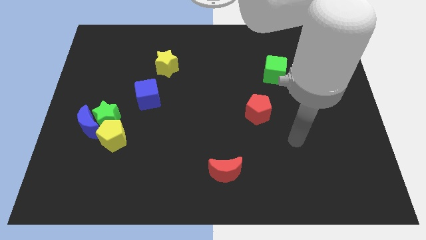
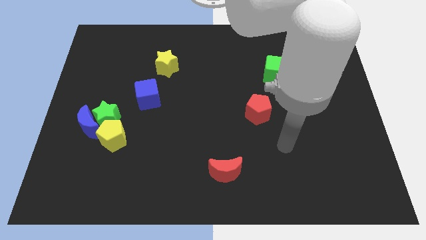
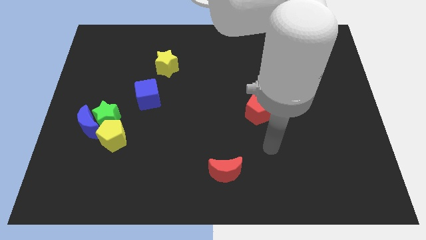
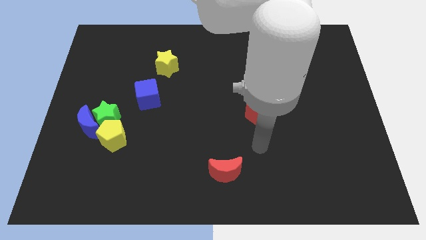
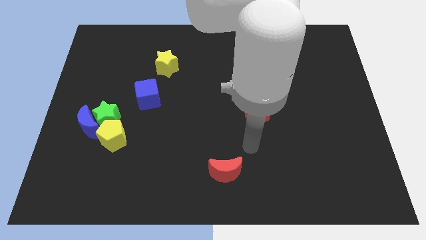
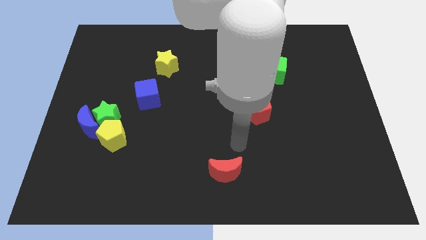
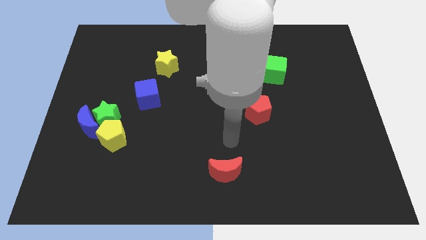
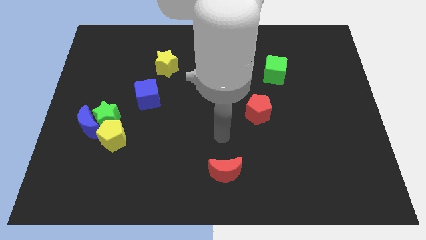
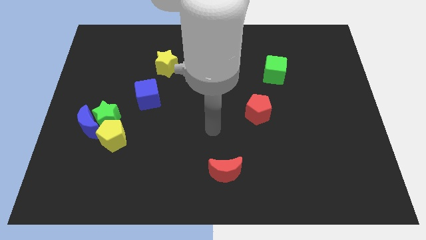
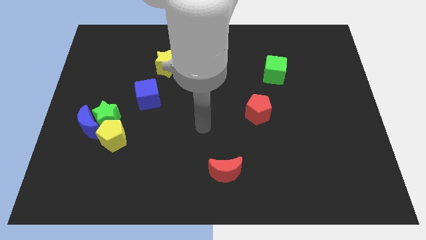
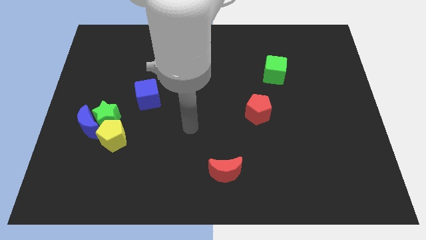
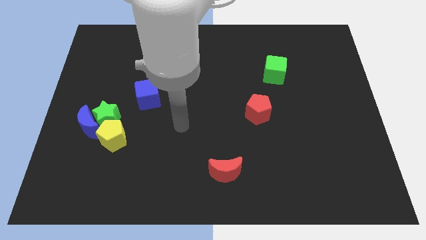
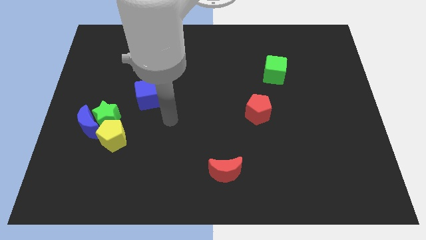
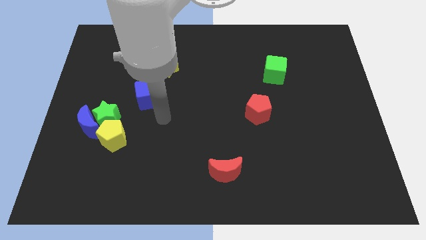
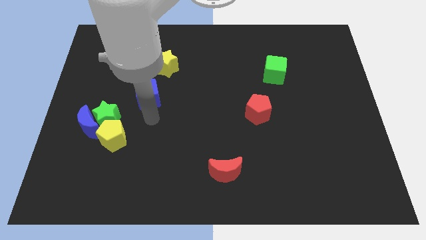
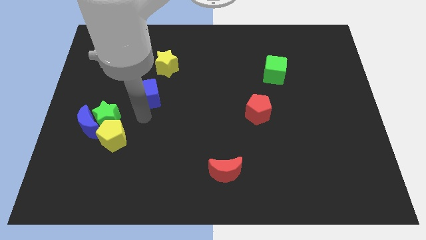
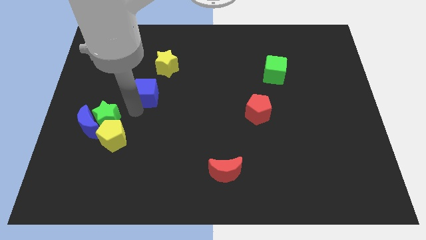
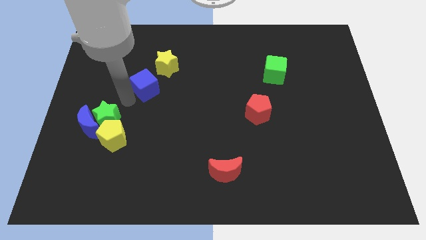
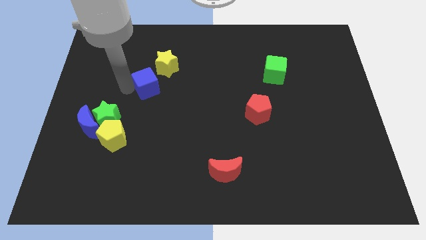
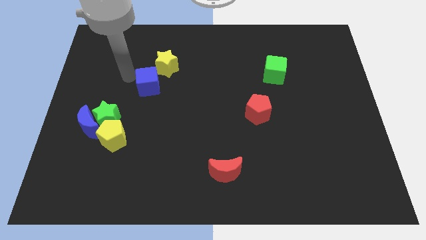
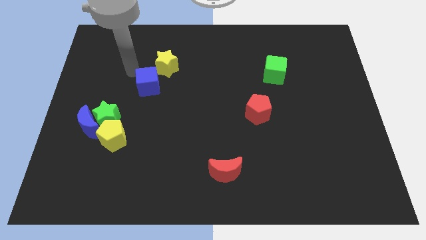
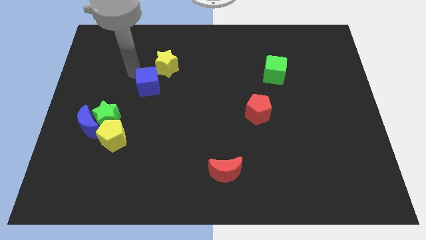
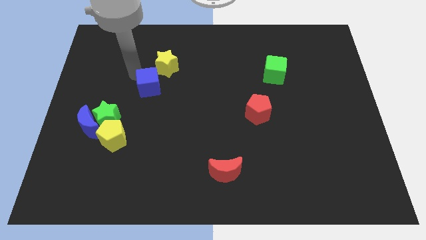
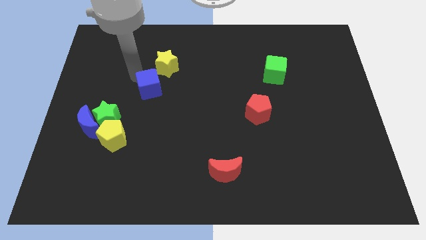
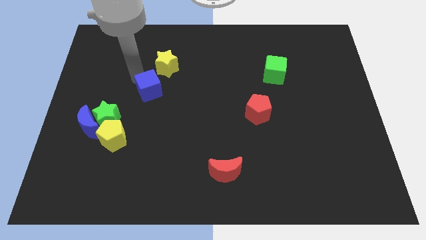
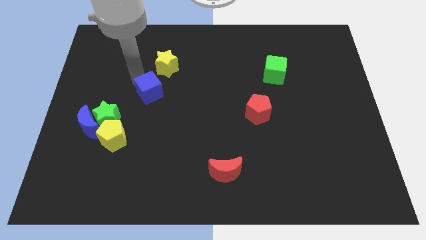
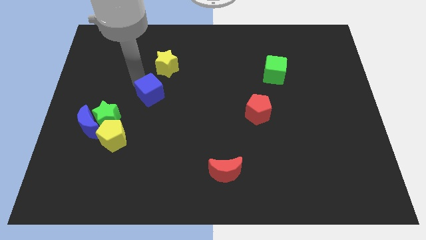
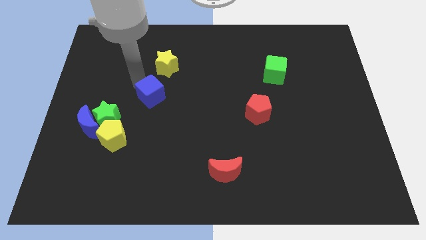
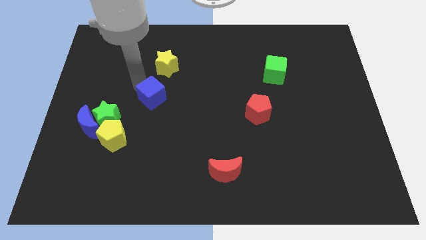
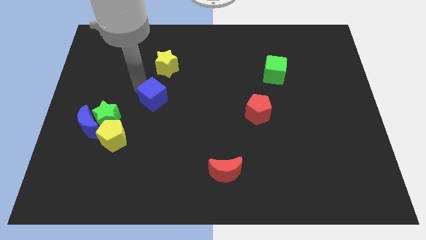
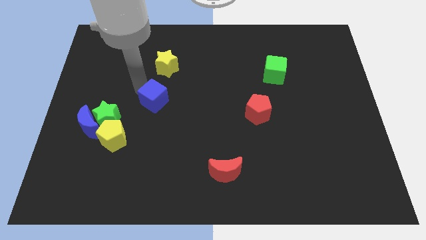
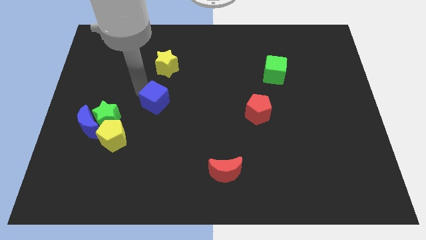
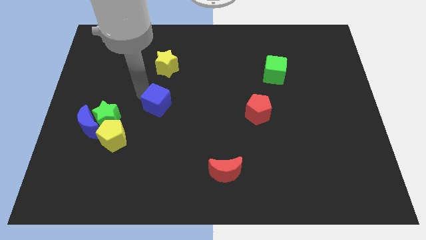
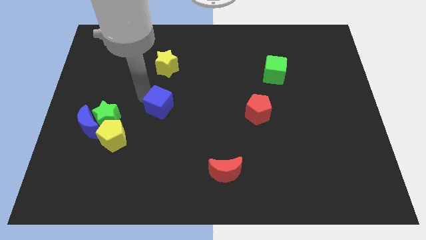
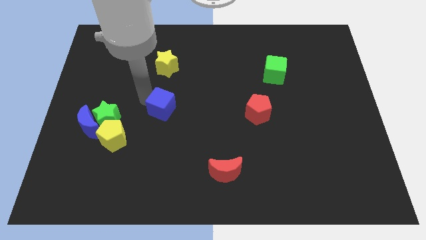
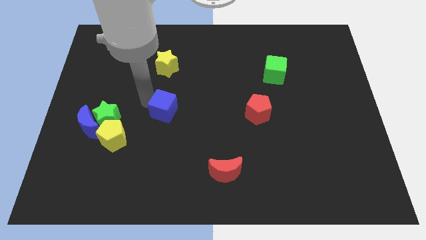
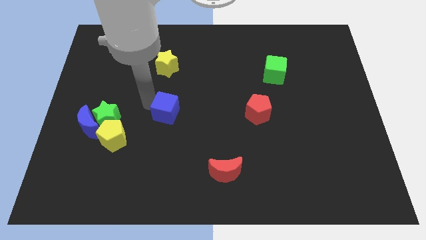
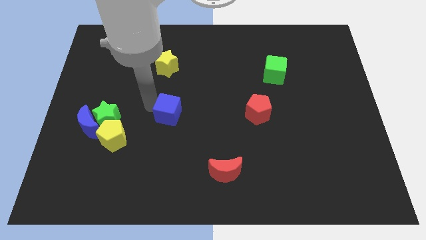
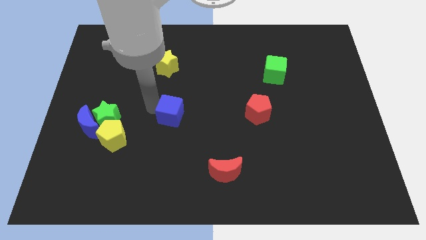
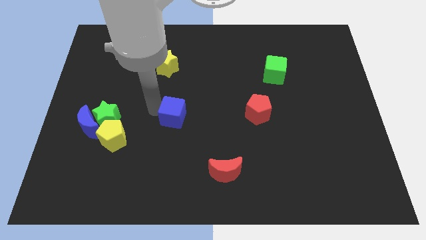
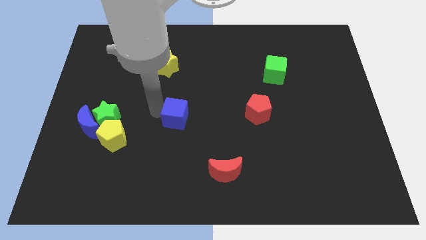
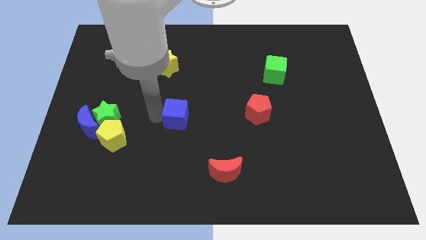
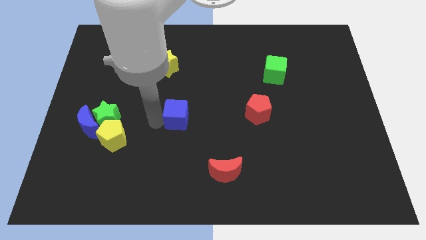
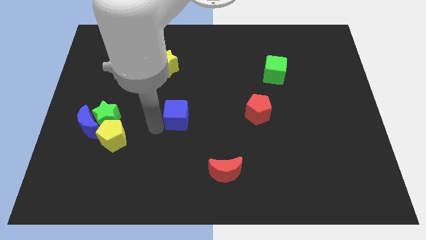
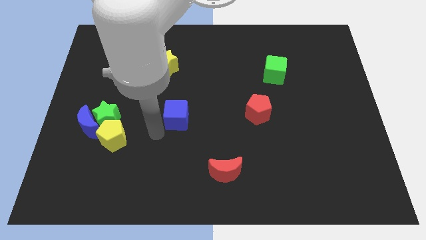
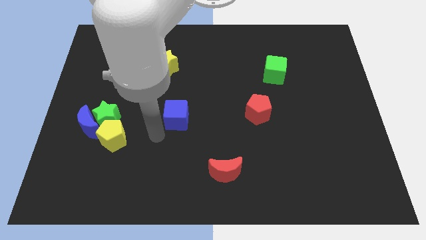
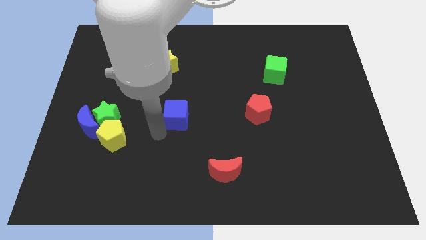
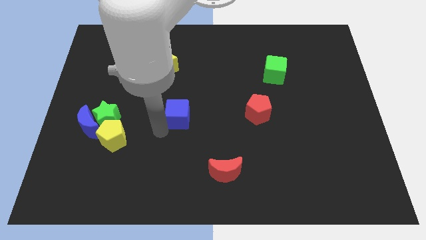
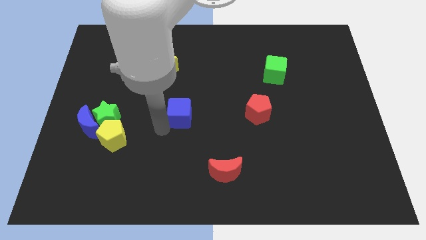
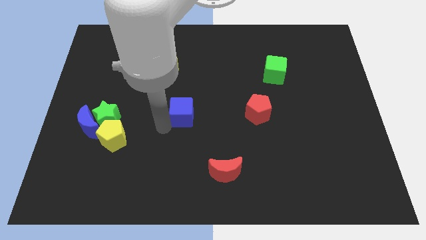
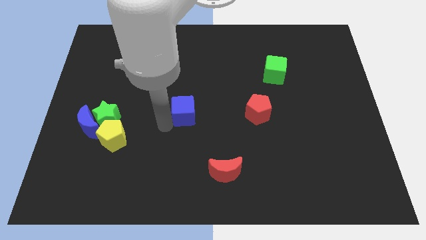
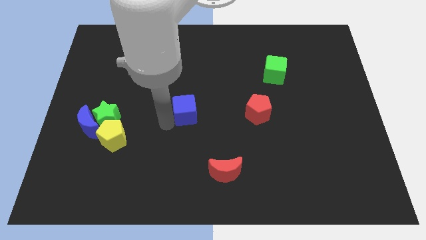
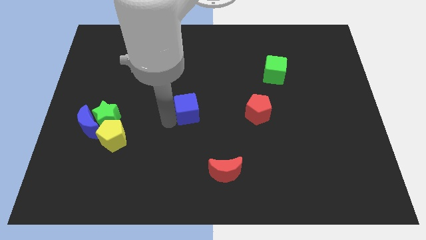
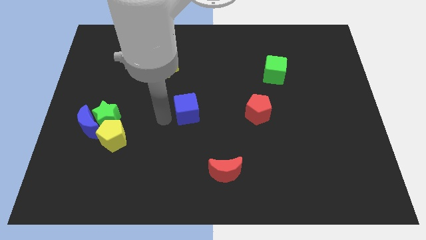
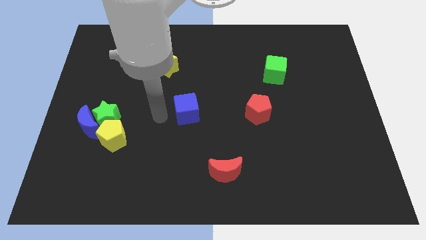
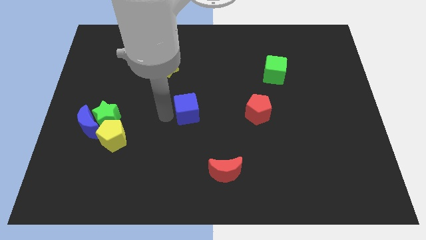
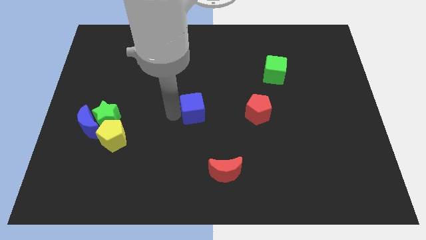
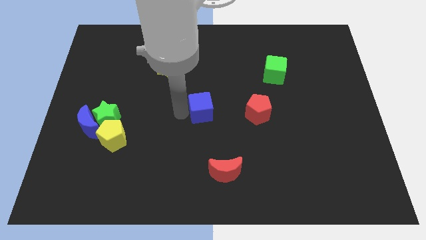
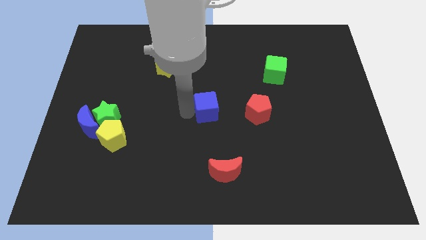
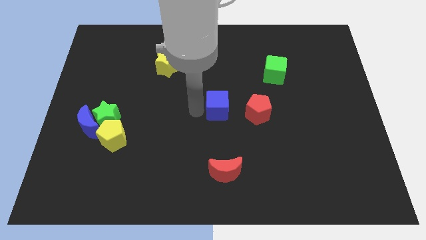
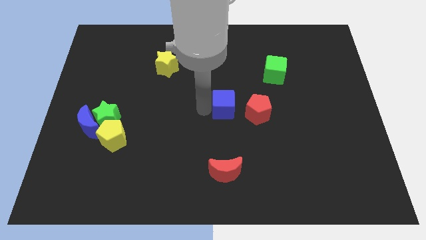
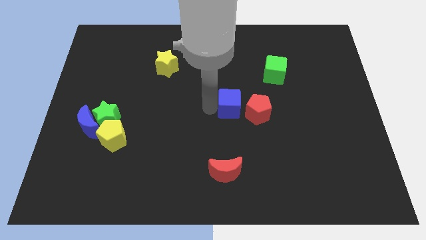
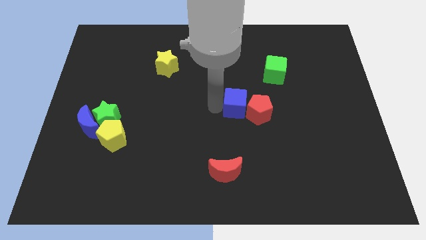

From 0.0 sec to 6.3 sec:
put the blue cube to the red pentagon

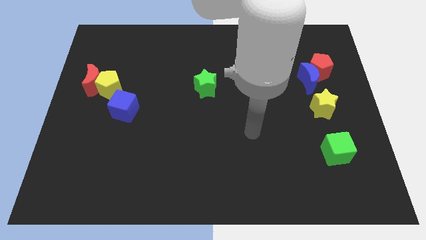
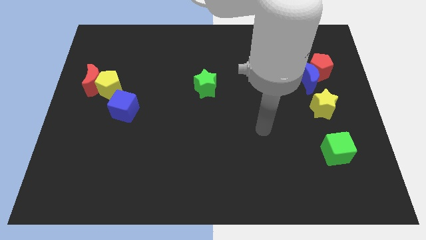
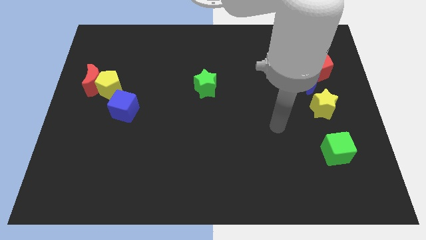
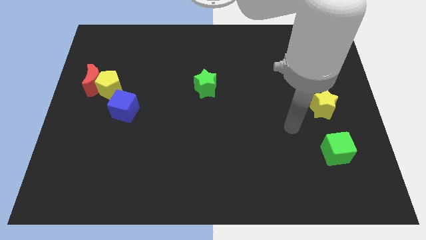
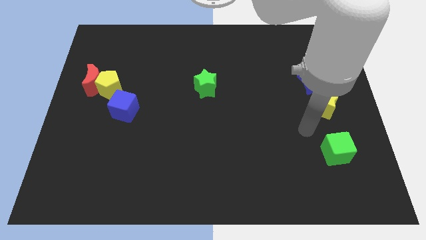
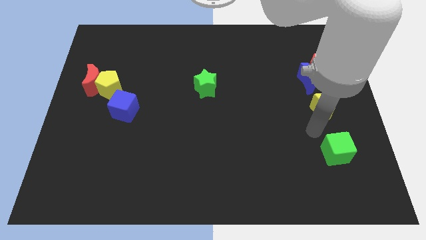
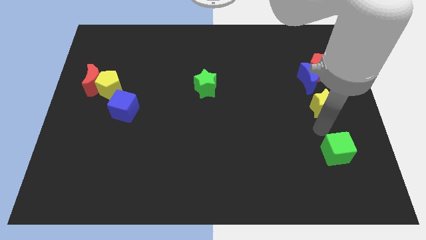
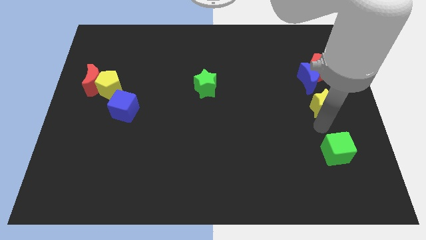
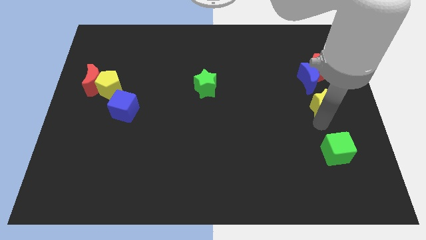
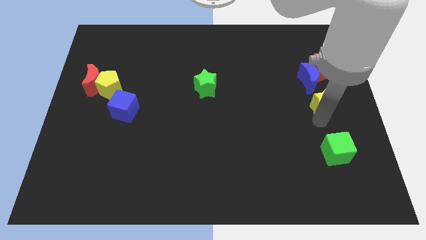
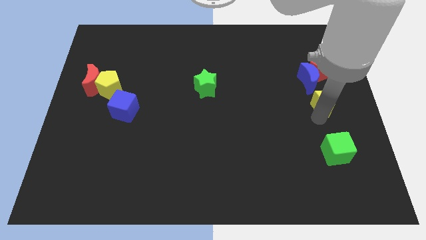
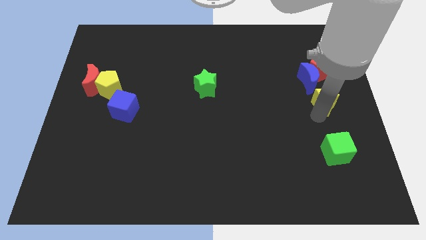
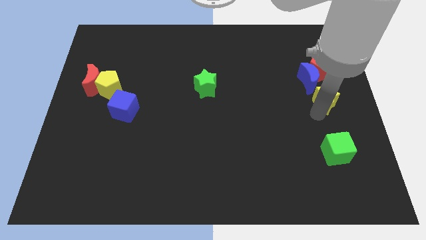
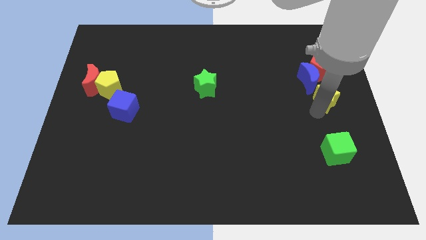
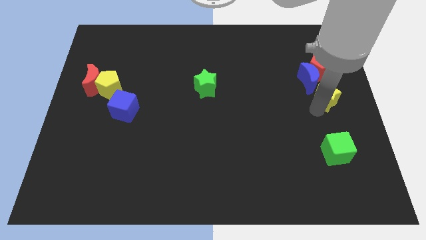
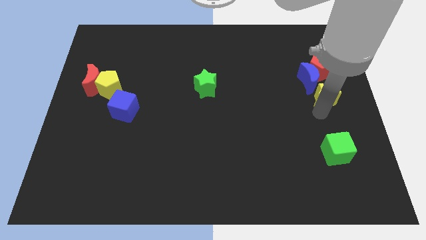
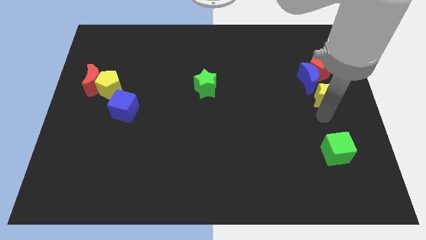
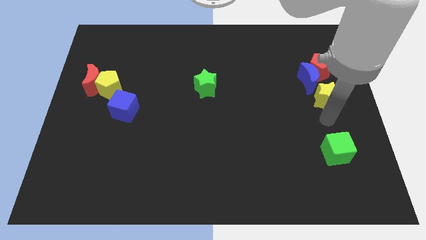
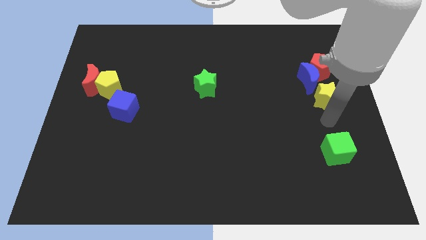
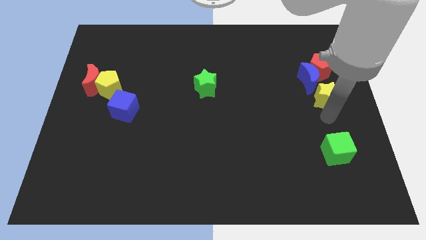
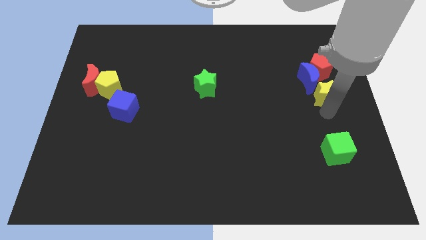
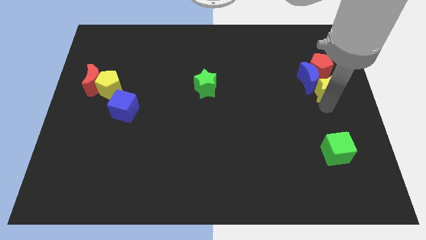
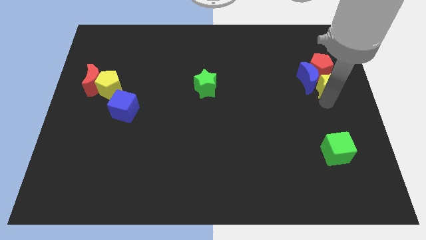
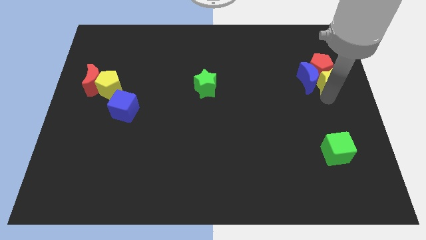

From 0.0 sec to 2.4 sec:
move the yellow star next to the red pentagon
